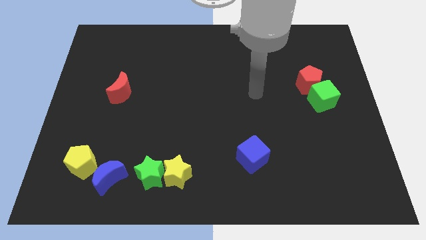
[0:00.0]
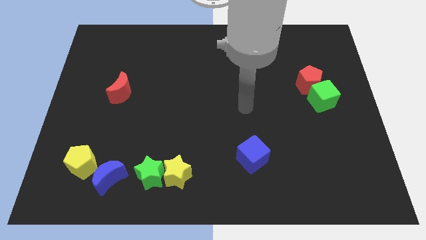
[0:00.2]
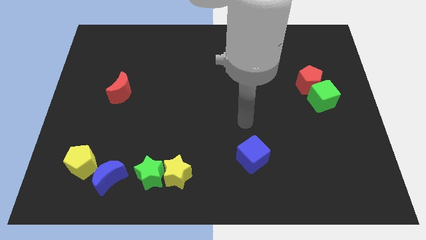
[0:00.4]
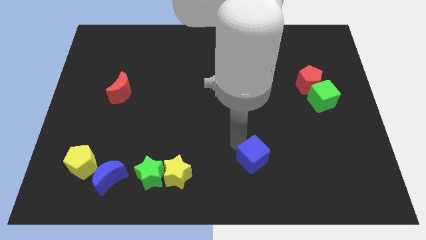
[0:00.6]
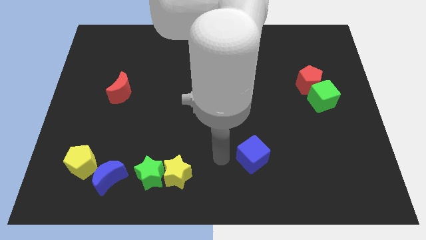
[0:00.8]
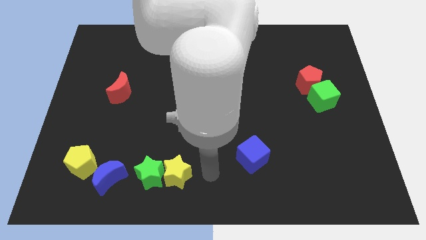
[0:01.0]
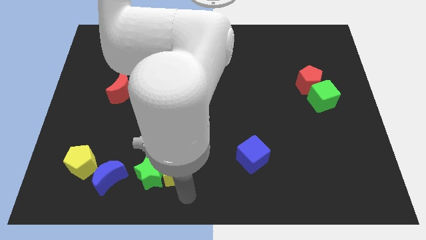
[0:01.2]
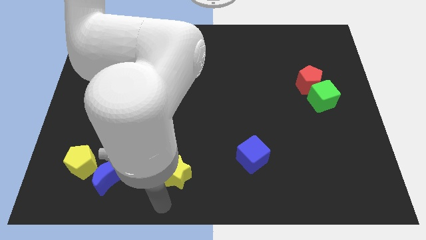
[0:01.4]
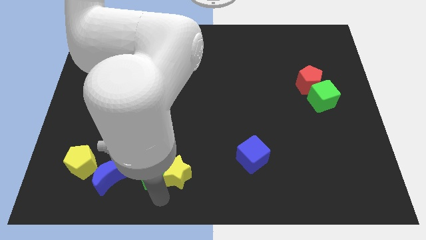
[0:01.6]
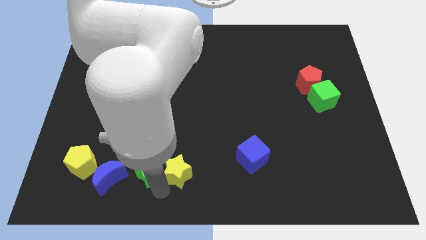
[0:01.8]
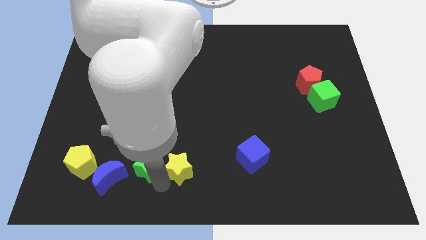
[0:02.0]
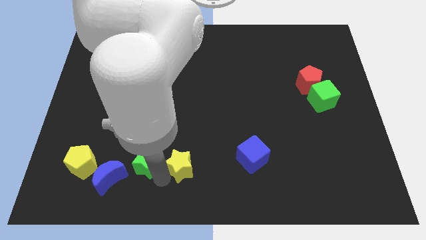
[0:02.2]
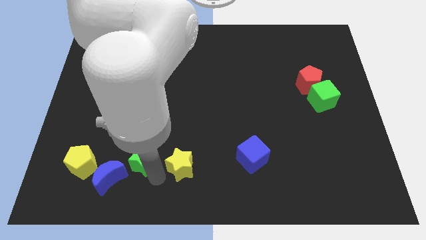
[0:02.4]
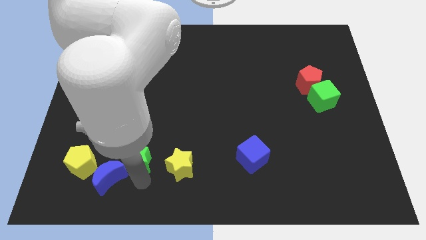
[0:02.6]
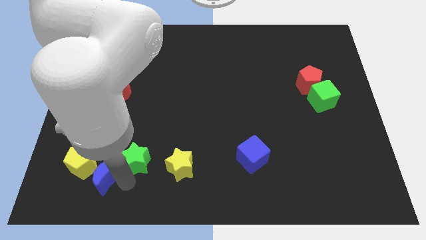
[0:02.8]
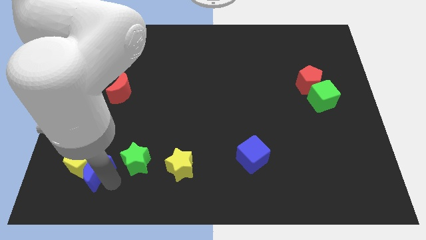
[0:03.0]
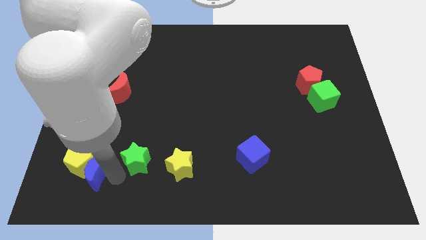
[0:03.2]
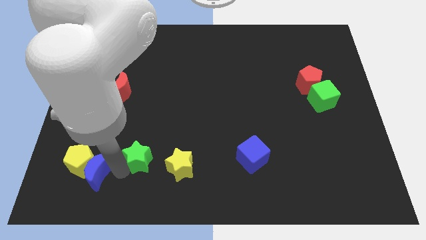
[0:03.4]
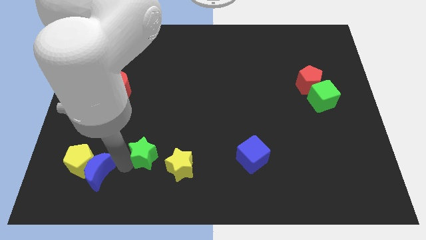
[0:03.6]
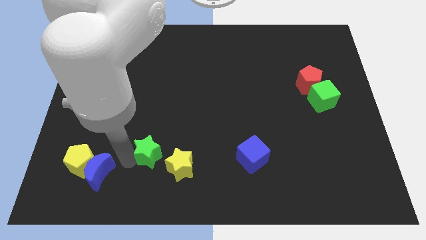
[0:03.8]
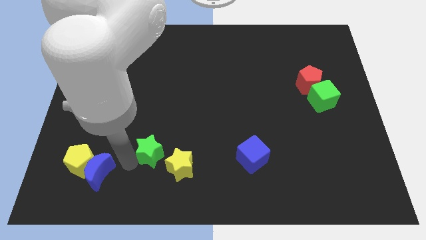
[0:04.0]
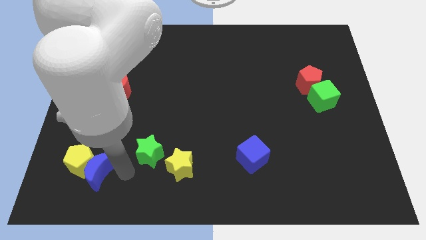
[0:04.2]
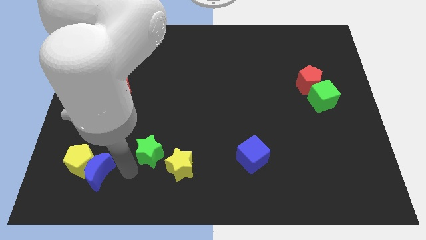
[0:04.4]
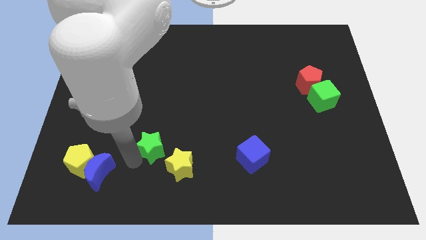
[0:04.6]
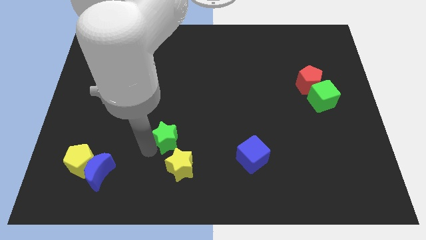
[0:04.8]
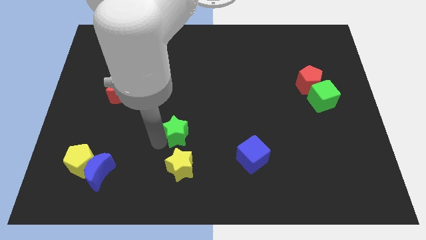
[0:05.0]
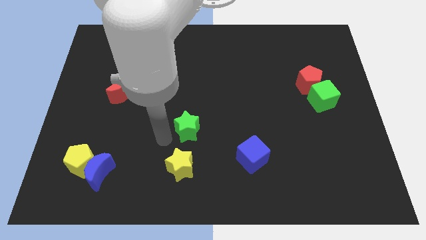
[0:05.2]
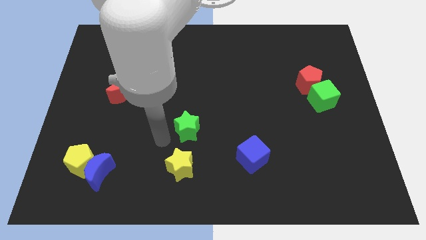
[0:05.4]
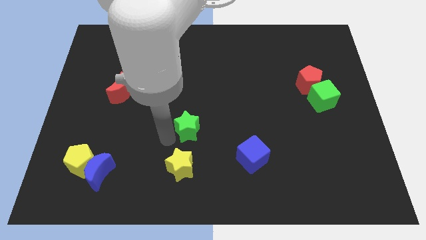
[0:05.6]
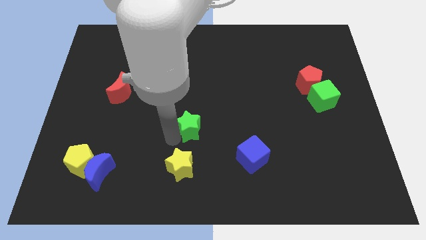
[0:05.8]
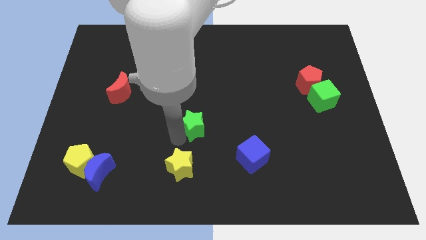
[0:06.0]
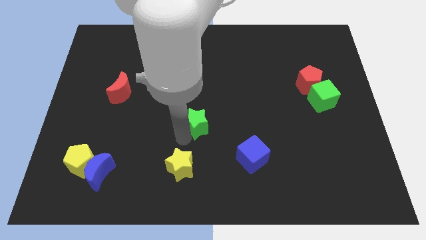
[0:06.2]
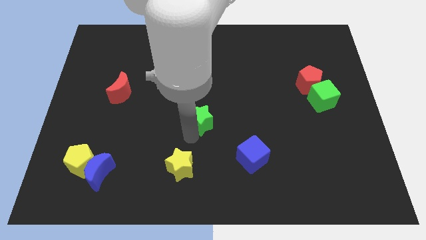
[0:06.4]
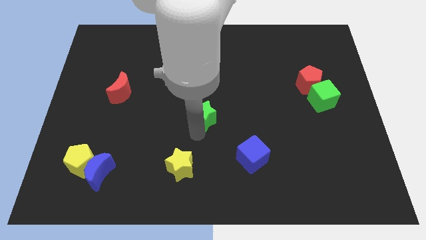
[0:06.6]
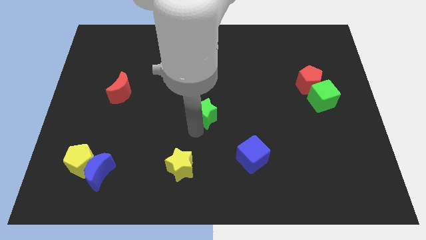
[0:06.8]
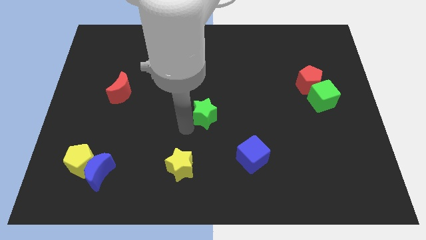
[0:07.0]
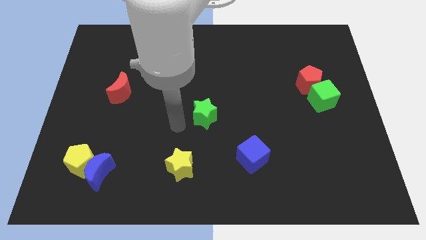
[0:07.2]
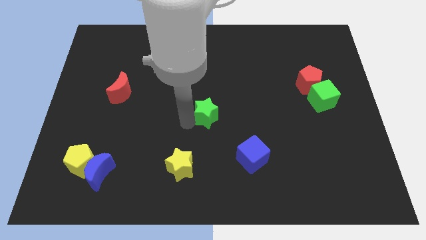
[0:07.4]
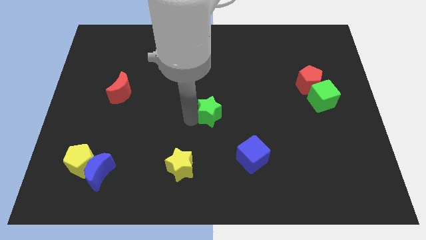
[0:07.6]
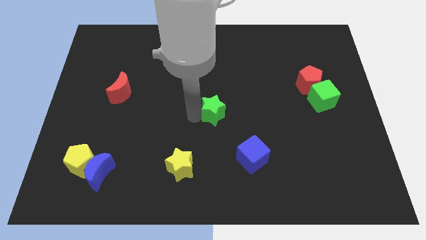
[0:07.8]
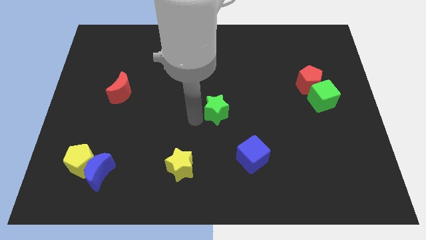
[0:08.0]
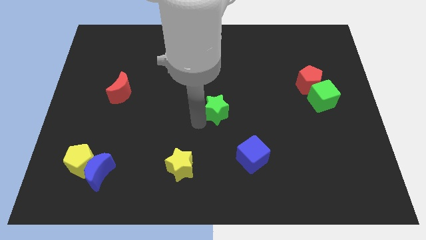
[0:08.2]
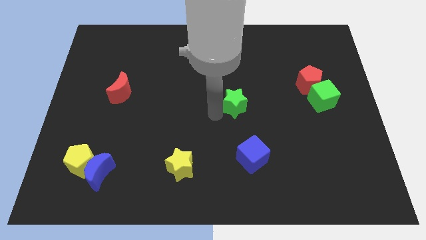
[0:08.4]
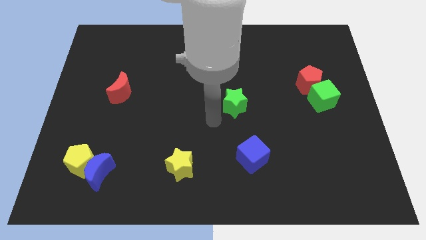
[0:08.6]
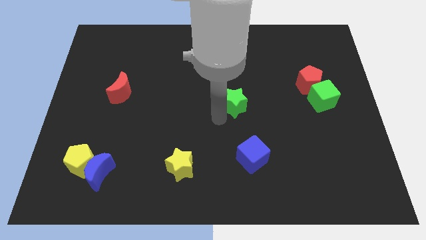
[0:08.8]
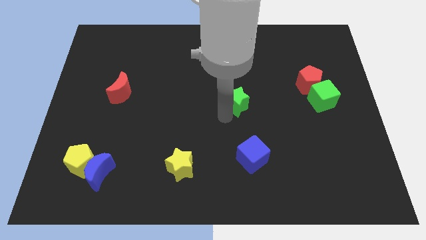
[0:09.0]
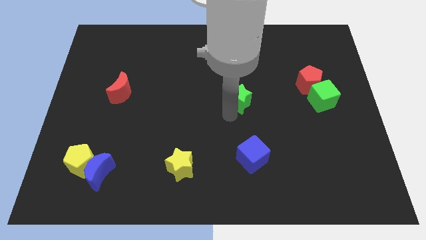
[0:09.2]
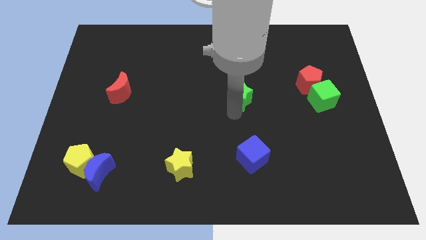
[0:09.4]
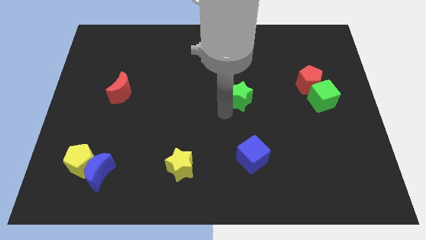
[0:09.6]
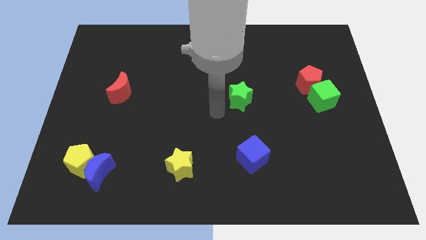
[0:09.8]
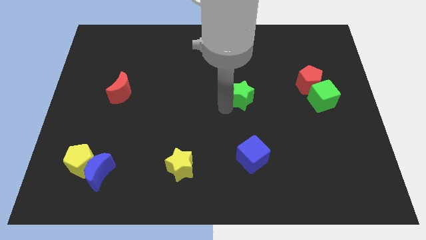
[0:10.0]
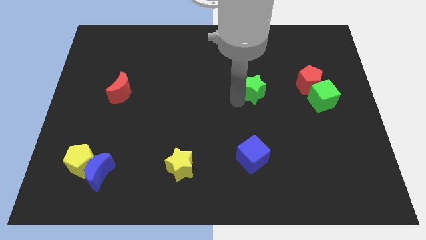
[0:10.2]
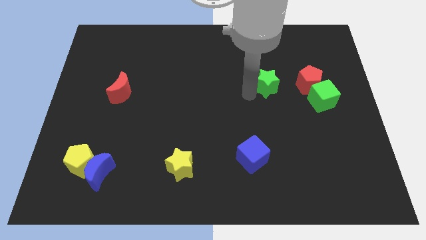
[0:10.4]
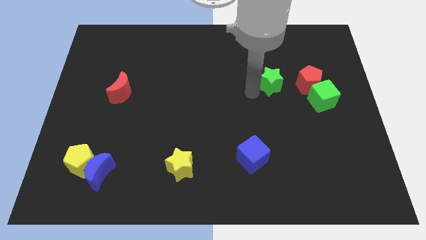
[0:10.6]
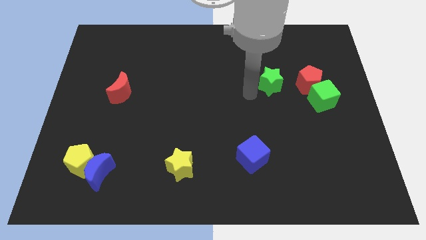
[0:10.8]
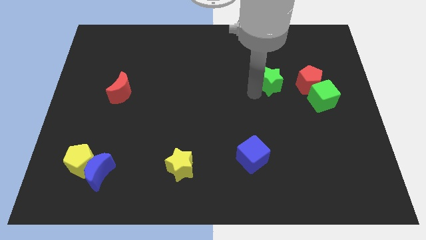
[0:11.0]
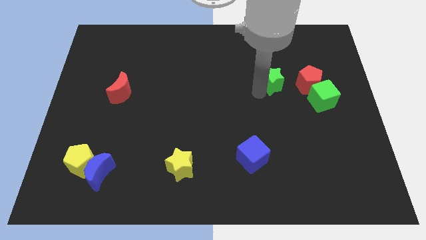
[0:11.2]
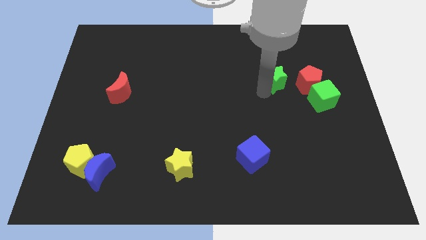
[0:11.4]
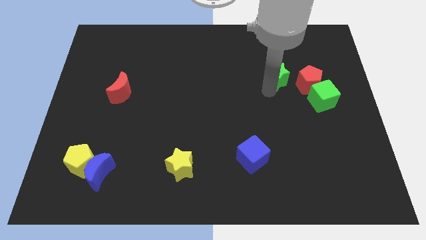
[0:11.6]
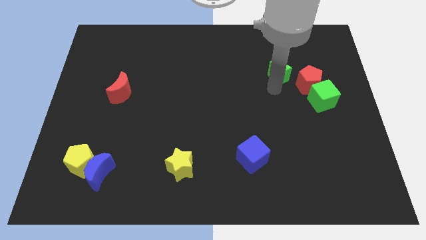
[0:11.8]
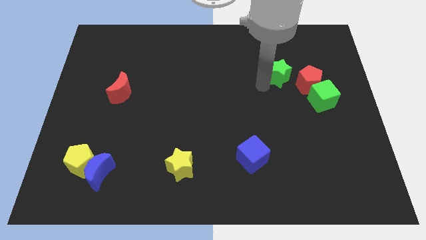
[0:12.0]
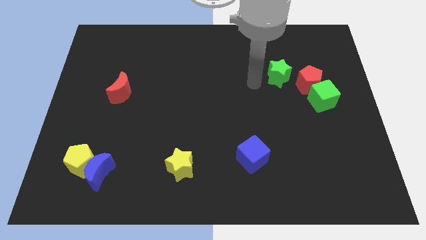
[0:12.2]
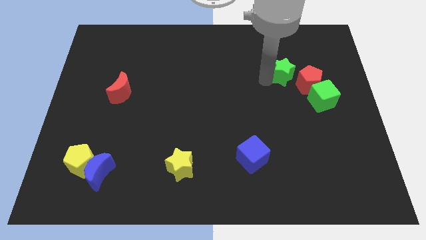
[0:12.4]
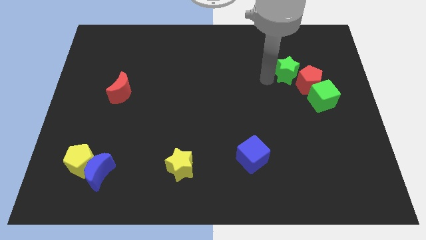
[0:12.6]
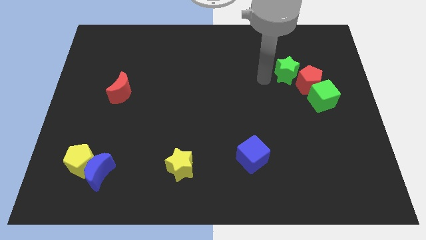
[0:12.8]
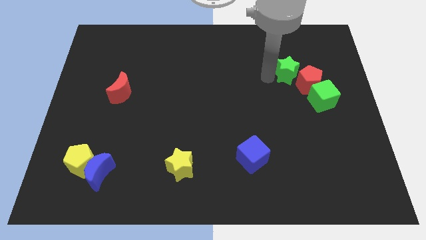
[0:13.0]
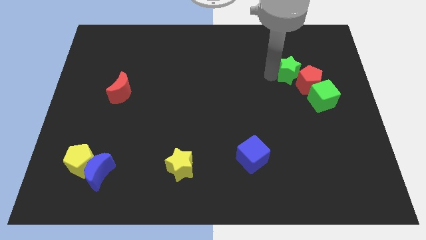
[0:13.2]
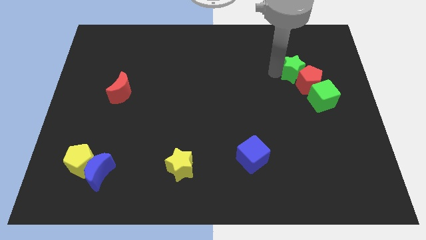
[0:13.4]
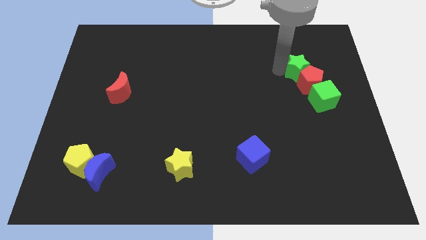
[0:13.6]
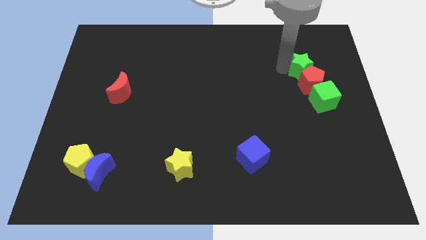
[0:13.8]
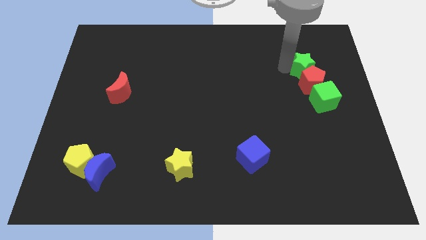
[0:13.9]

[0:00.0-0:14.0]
slide the green star to the top right side of the red pentagon
